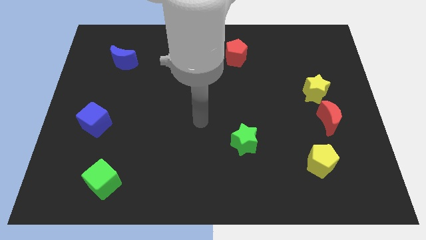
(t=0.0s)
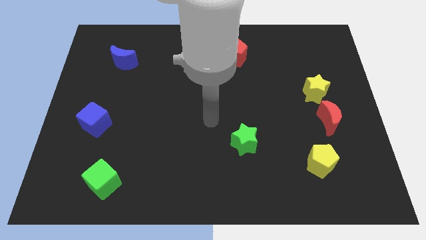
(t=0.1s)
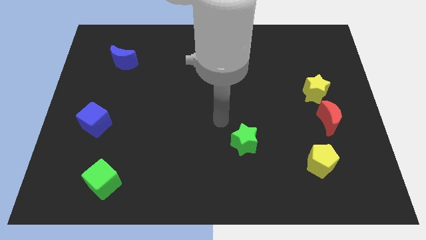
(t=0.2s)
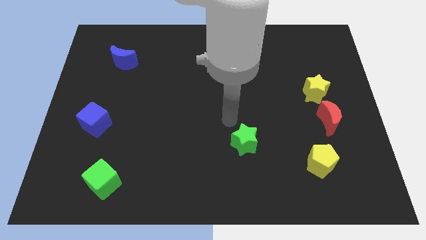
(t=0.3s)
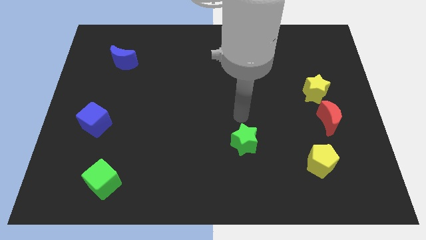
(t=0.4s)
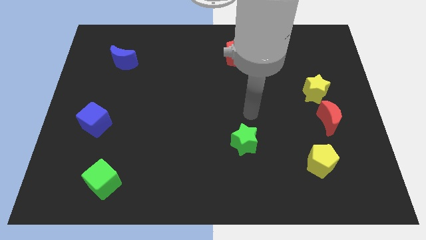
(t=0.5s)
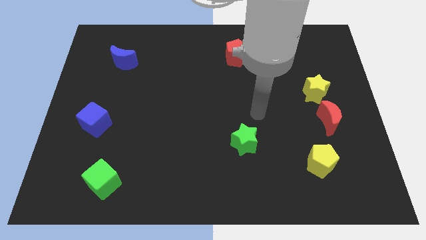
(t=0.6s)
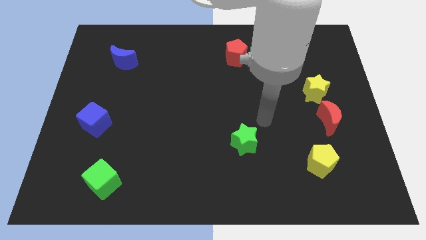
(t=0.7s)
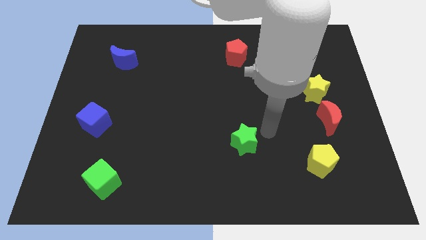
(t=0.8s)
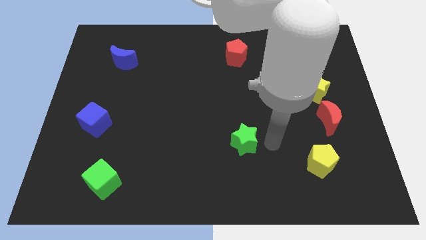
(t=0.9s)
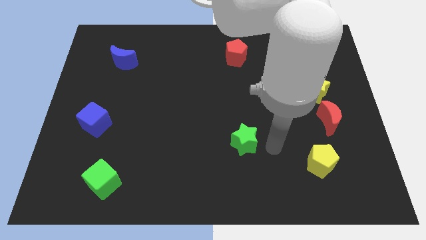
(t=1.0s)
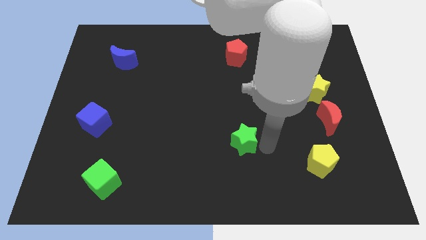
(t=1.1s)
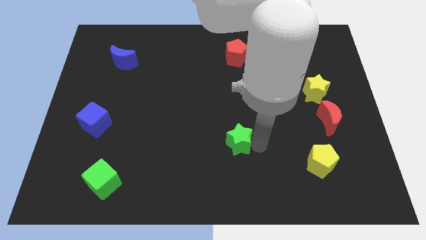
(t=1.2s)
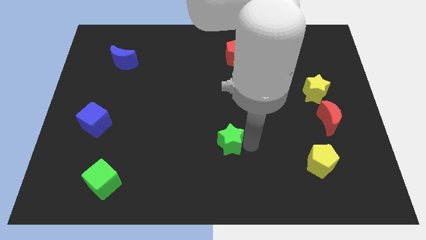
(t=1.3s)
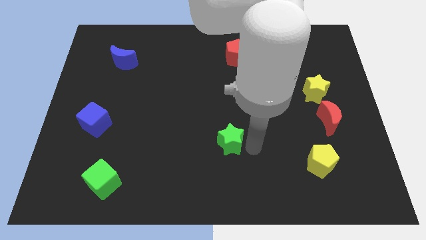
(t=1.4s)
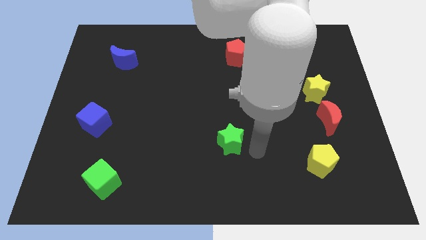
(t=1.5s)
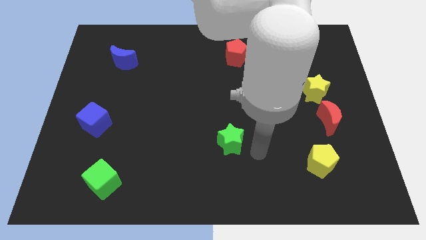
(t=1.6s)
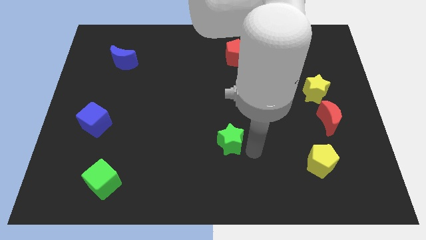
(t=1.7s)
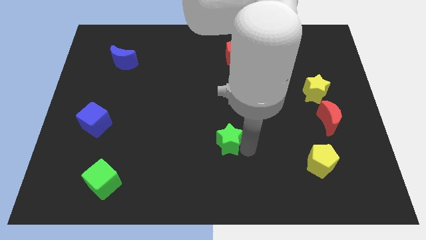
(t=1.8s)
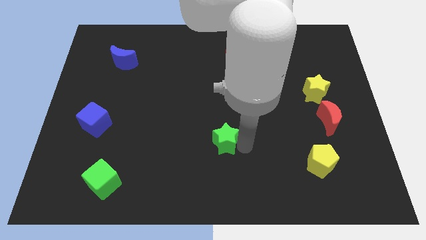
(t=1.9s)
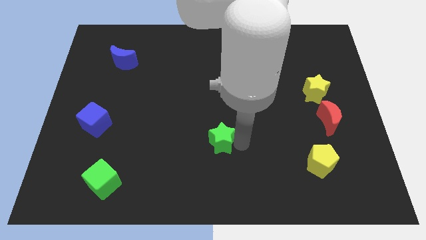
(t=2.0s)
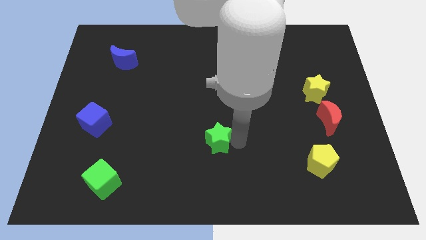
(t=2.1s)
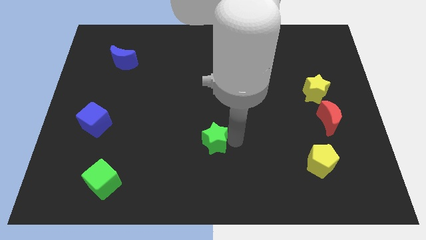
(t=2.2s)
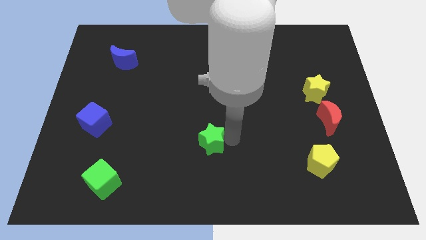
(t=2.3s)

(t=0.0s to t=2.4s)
push the green star left a little bit

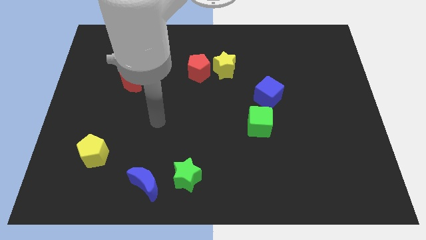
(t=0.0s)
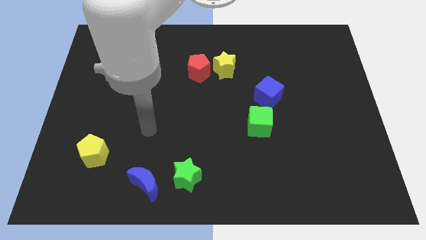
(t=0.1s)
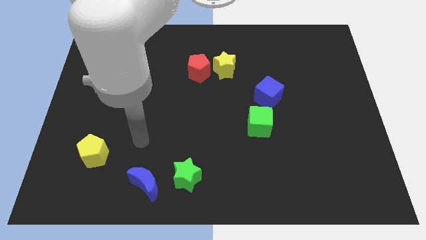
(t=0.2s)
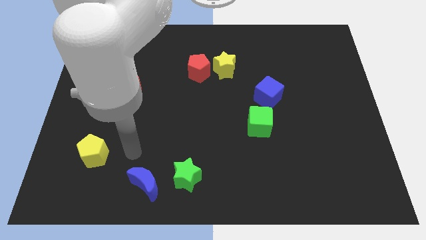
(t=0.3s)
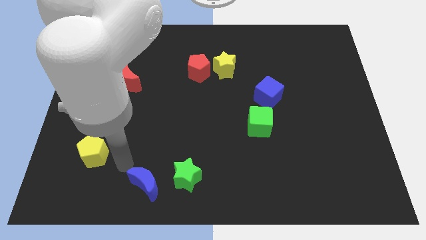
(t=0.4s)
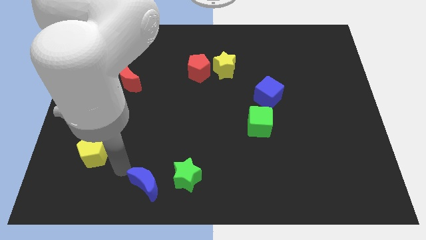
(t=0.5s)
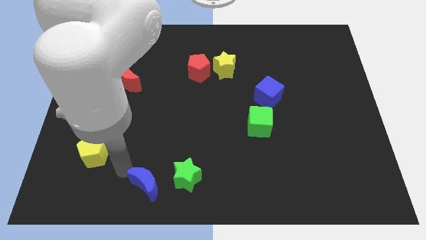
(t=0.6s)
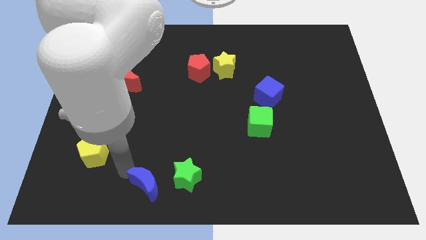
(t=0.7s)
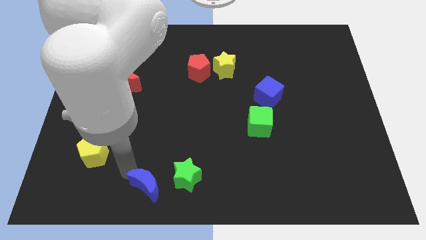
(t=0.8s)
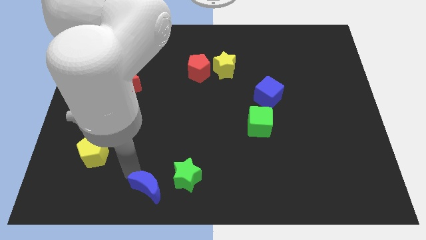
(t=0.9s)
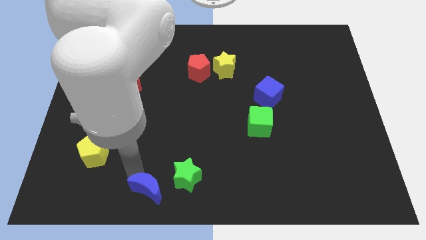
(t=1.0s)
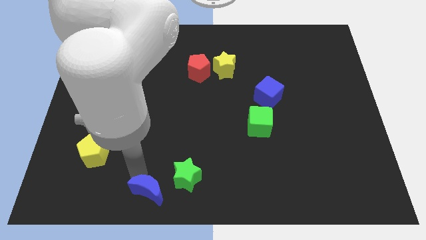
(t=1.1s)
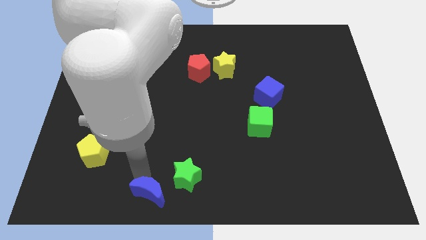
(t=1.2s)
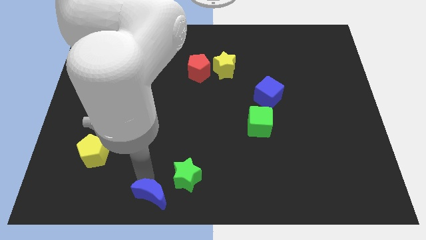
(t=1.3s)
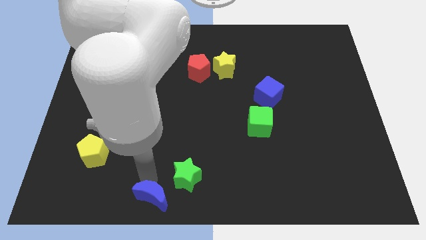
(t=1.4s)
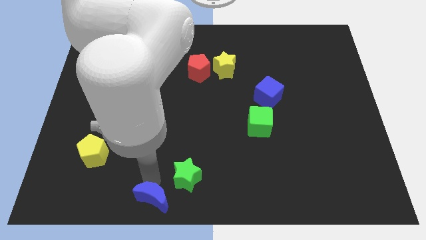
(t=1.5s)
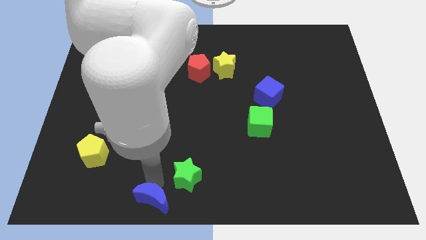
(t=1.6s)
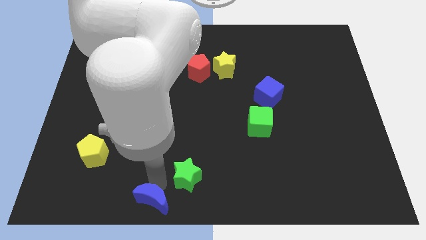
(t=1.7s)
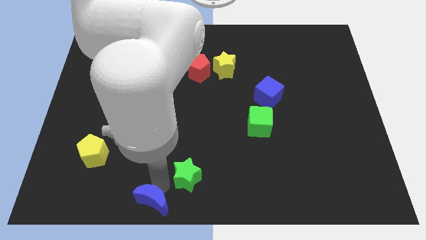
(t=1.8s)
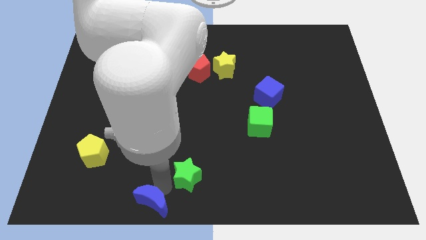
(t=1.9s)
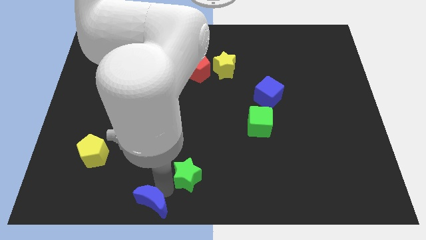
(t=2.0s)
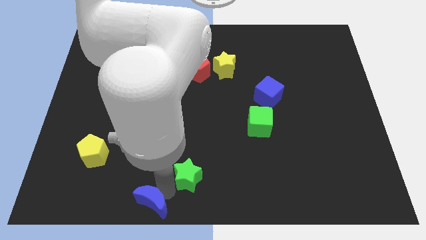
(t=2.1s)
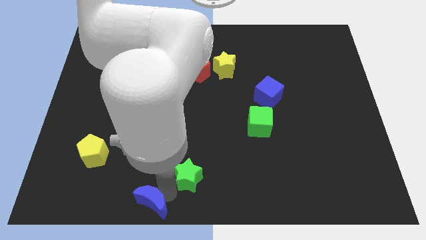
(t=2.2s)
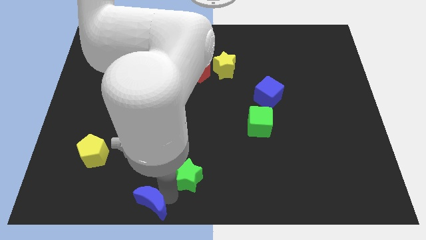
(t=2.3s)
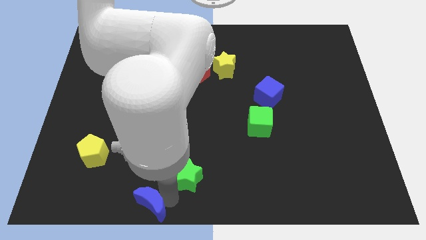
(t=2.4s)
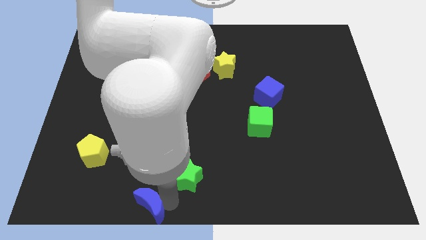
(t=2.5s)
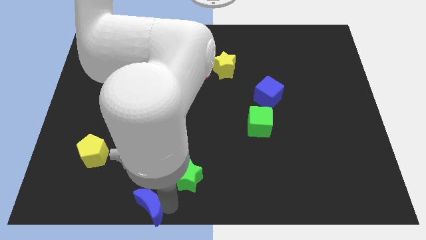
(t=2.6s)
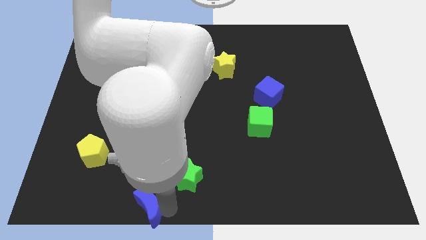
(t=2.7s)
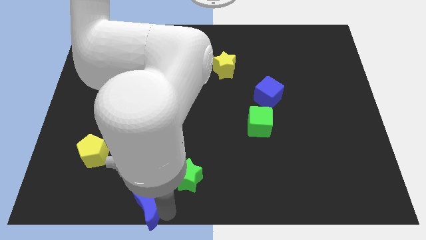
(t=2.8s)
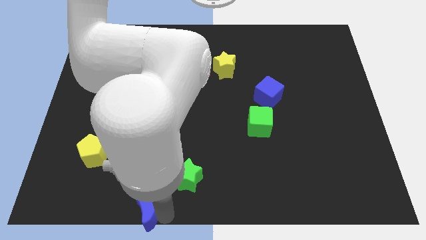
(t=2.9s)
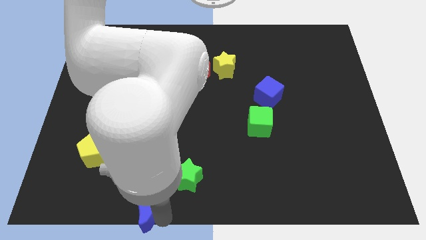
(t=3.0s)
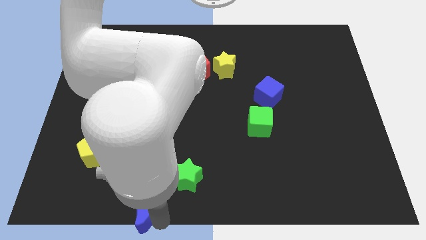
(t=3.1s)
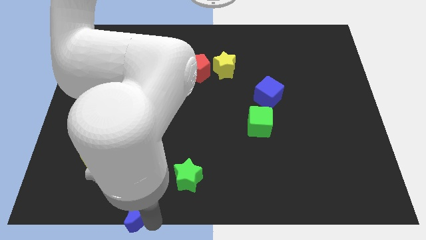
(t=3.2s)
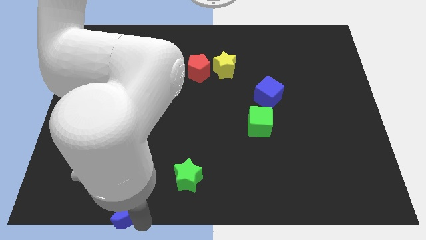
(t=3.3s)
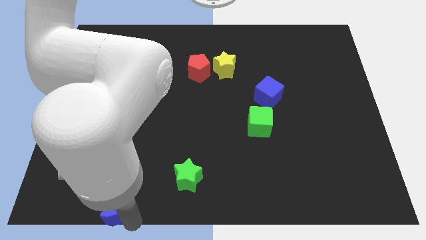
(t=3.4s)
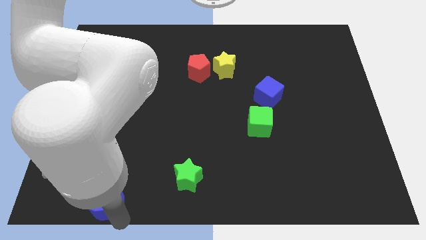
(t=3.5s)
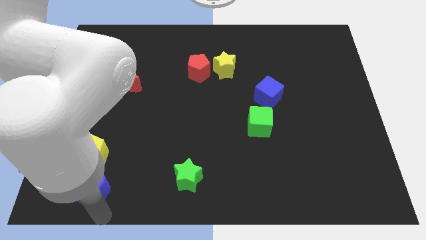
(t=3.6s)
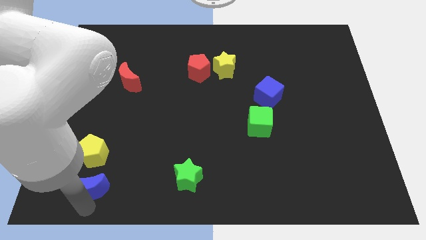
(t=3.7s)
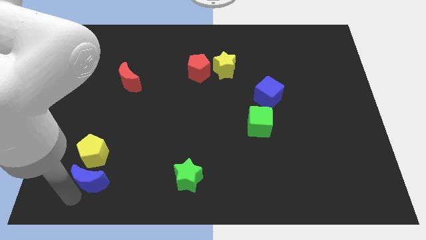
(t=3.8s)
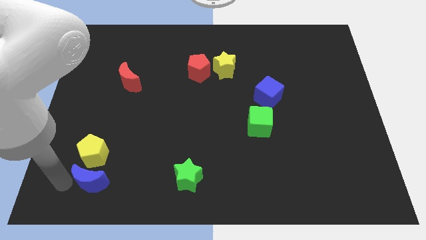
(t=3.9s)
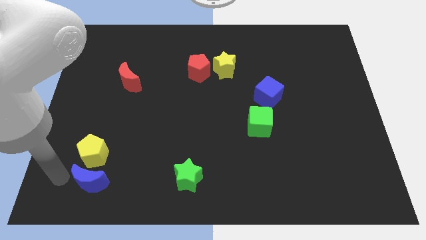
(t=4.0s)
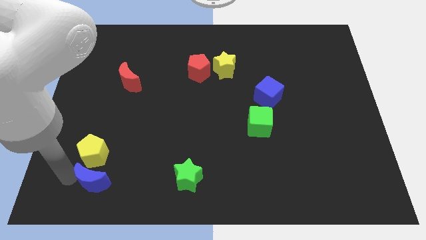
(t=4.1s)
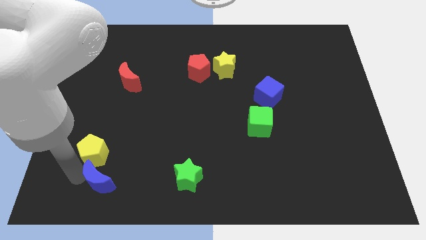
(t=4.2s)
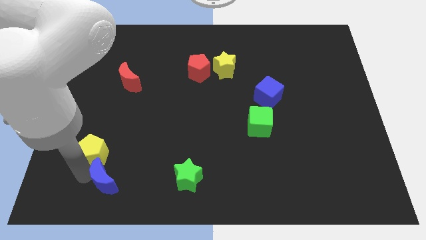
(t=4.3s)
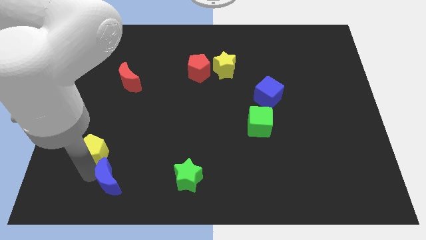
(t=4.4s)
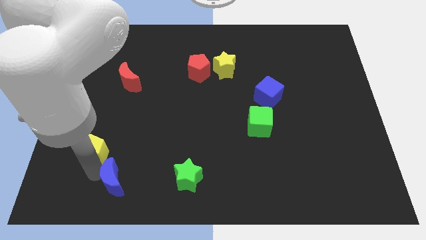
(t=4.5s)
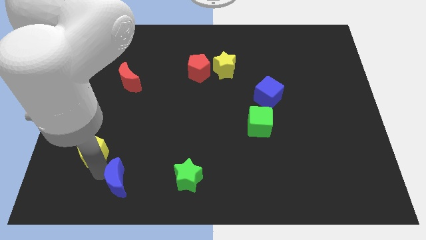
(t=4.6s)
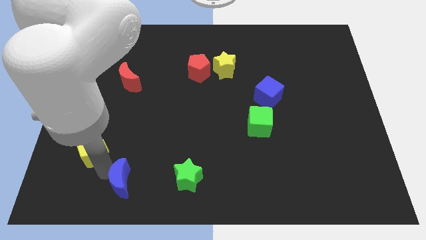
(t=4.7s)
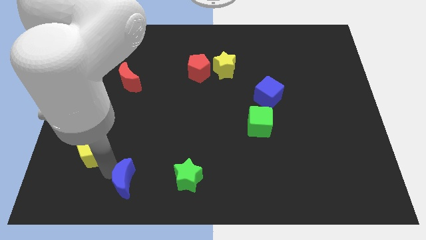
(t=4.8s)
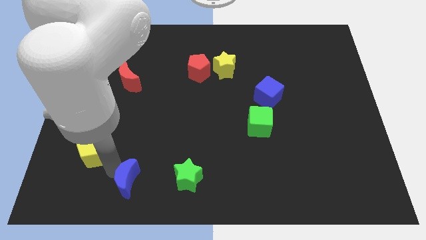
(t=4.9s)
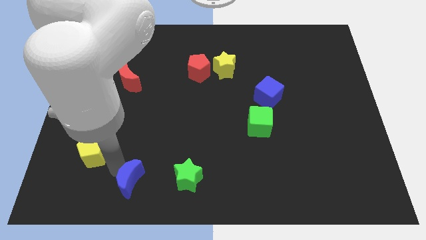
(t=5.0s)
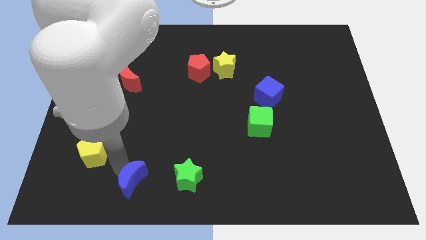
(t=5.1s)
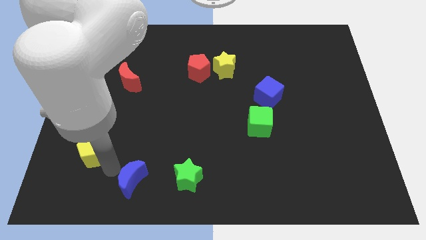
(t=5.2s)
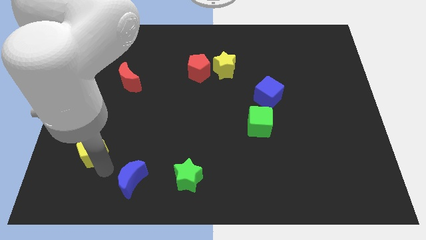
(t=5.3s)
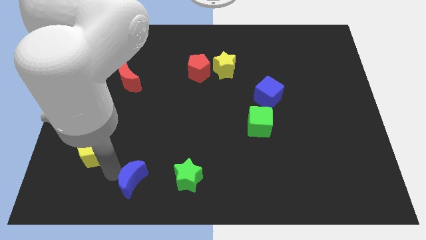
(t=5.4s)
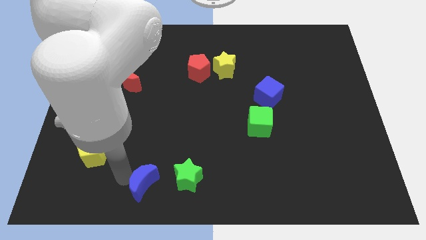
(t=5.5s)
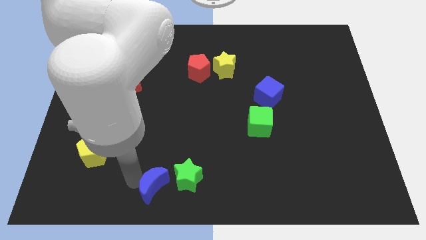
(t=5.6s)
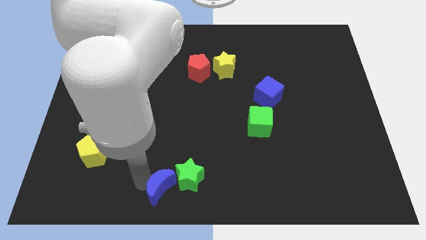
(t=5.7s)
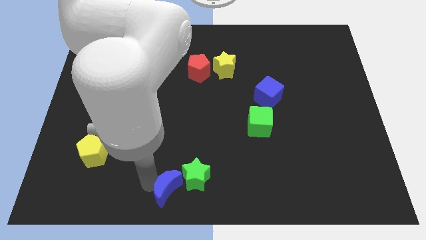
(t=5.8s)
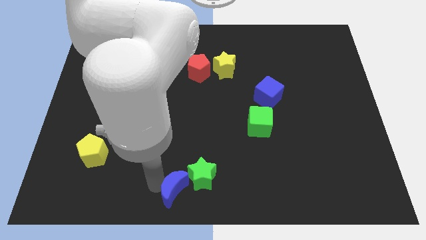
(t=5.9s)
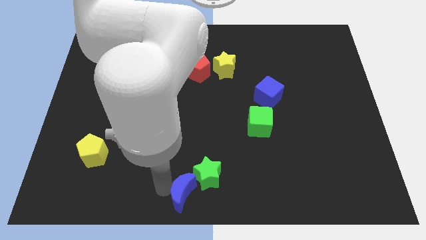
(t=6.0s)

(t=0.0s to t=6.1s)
move the blue moon somewhat right
